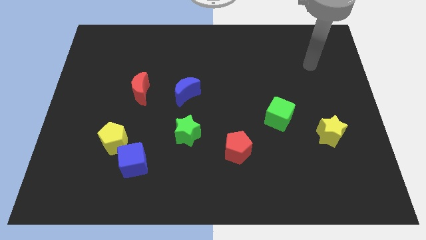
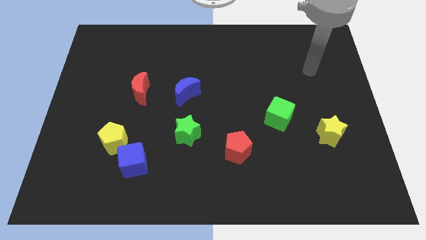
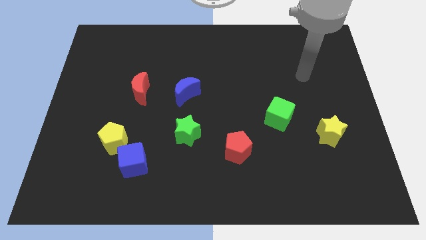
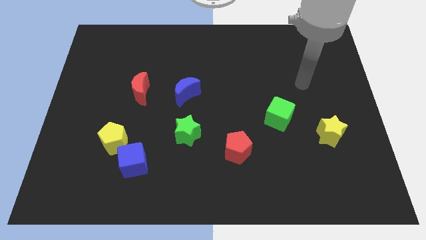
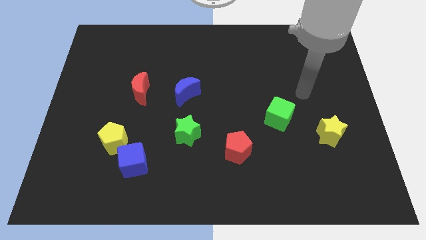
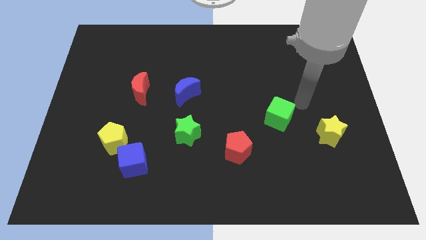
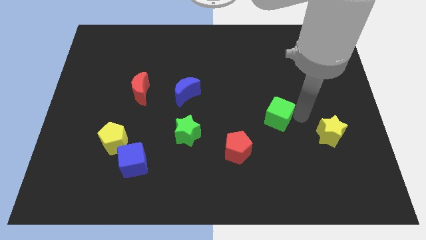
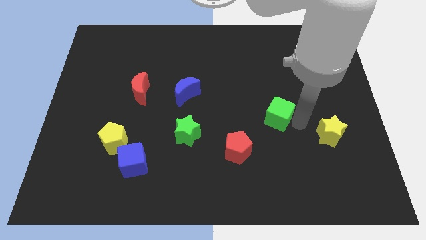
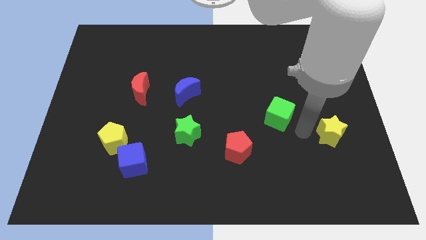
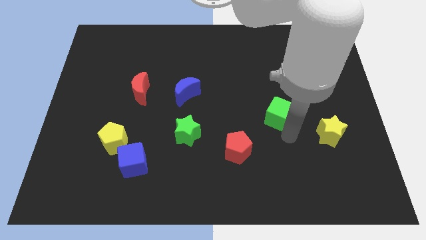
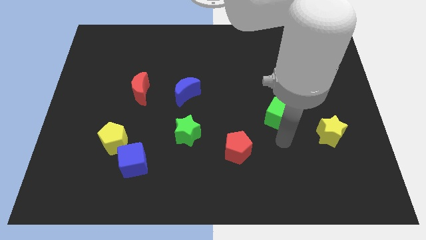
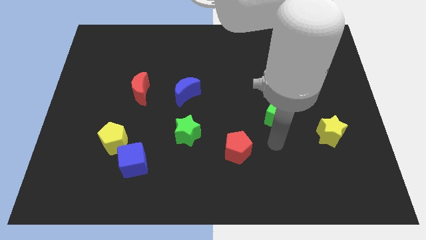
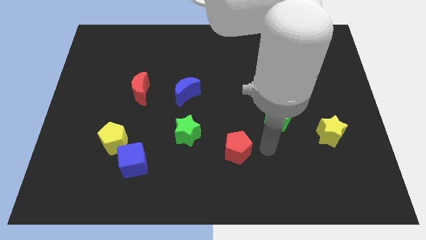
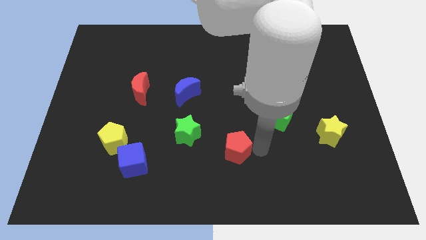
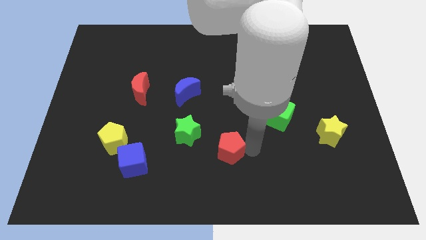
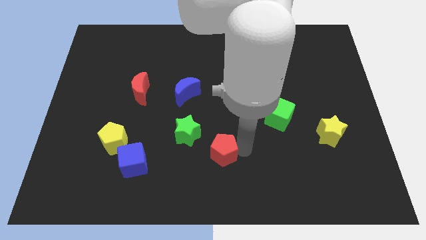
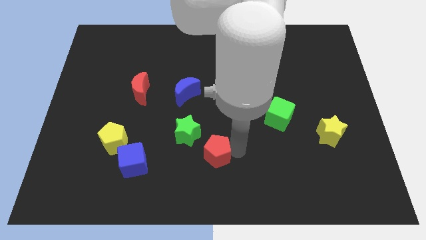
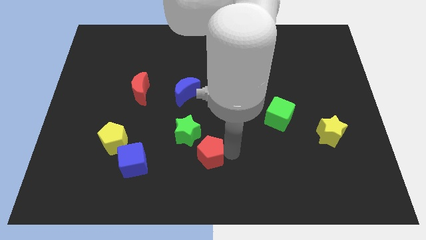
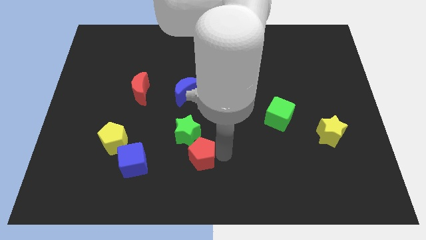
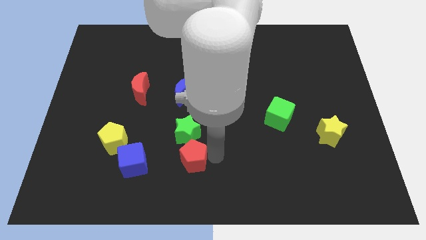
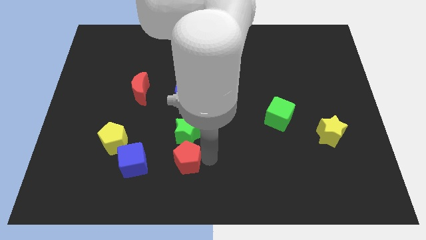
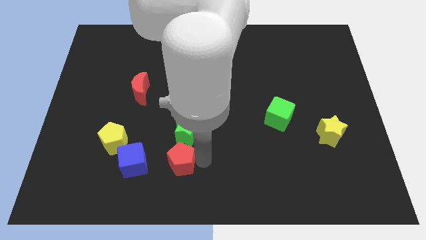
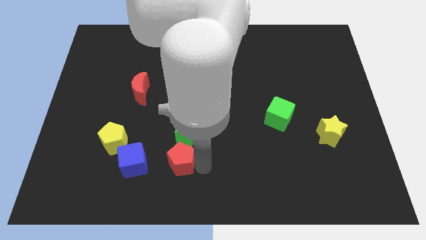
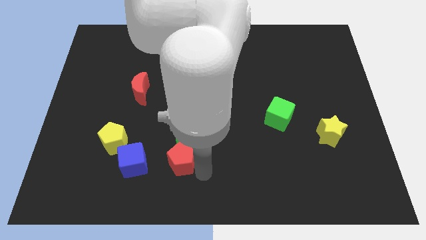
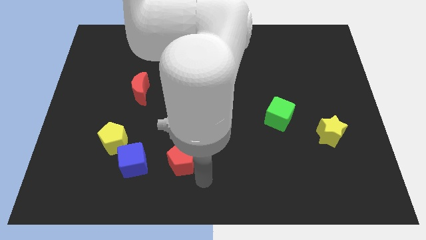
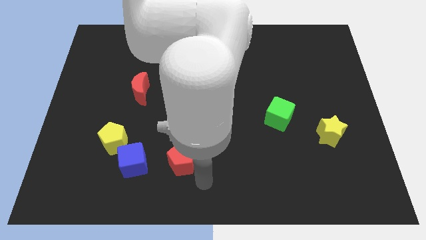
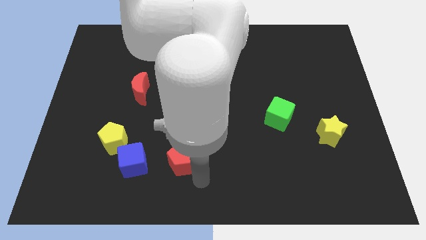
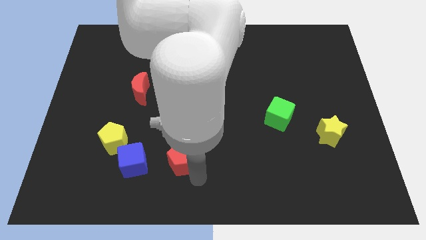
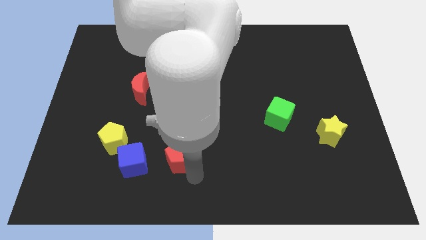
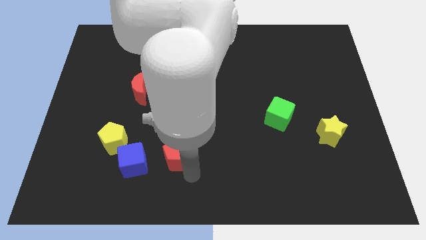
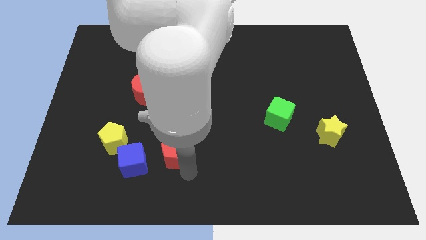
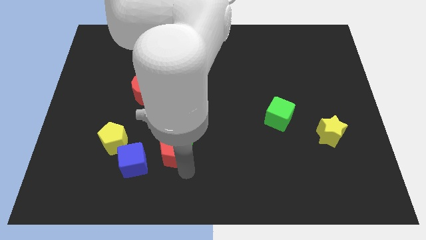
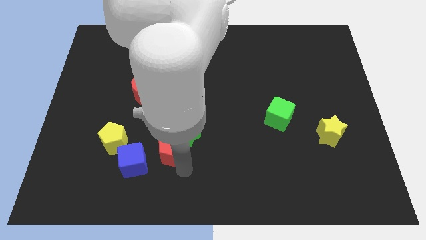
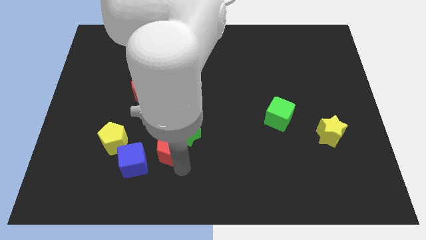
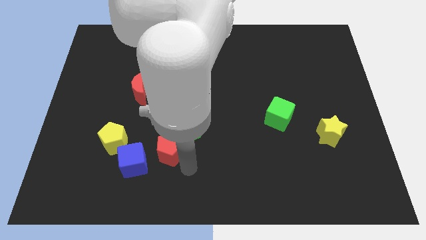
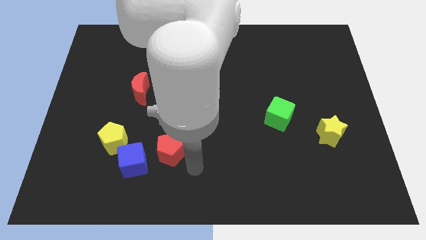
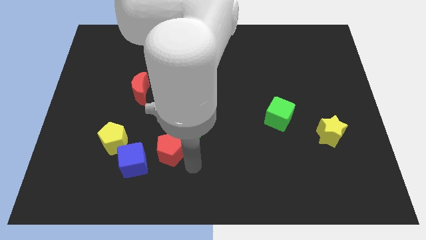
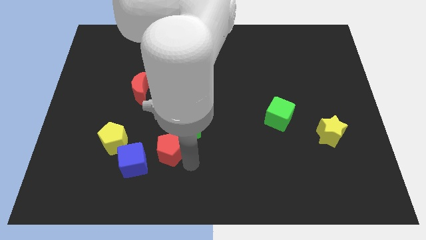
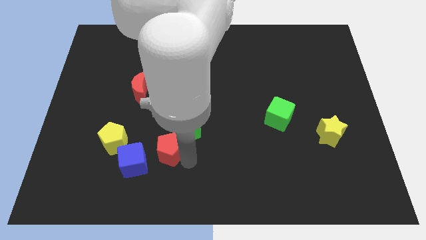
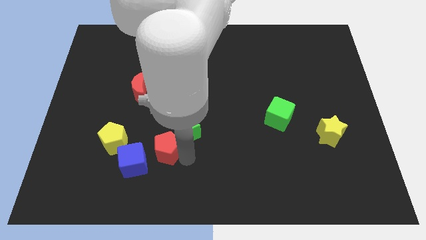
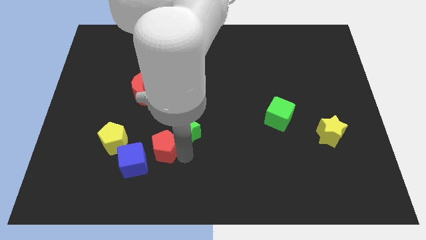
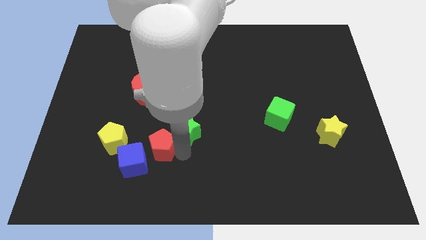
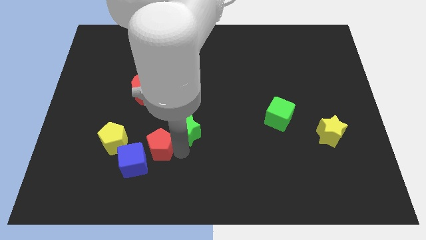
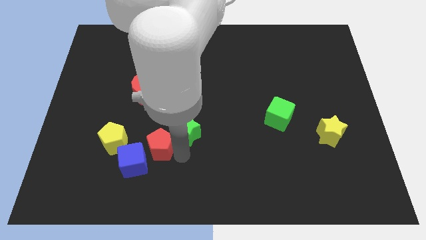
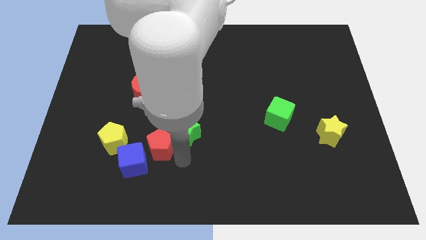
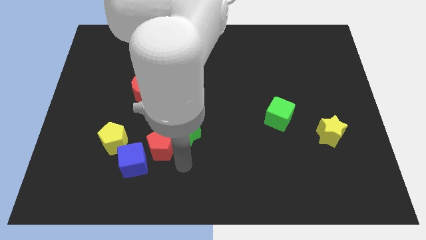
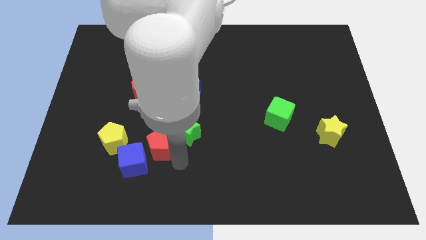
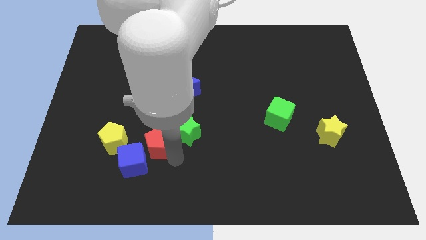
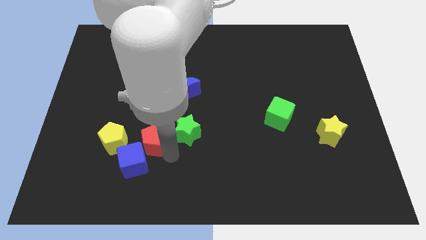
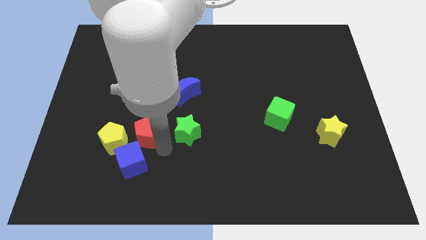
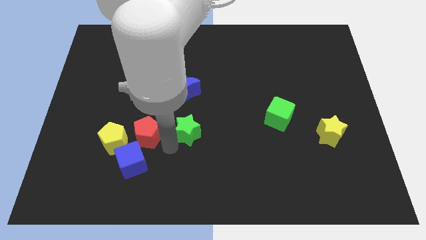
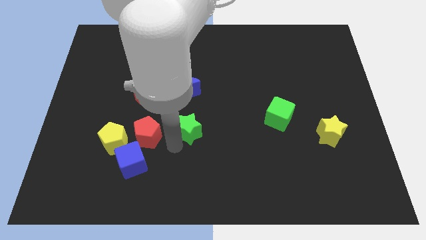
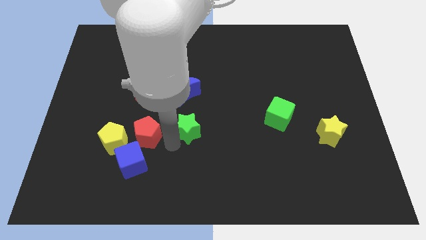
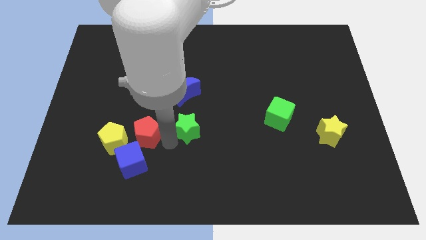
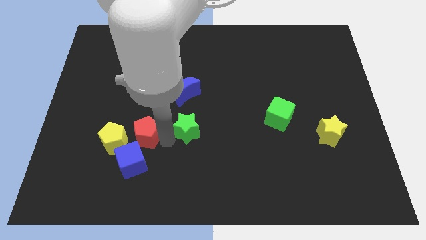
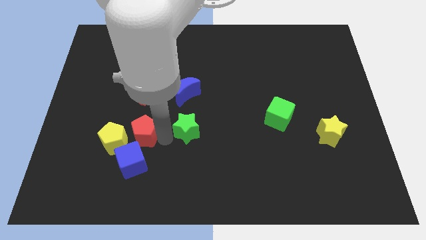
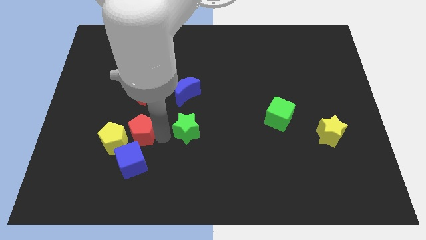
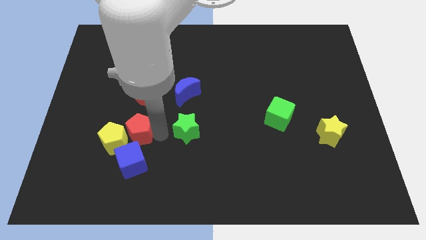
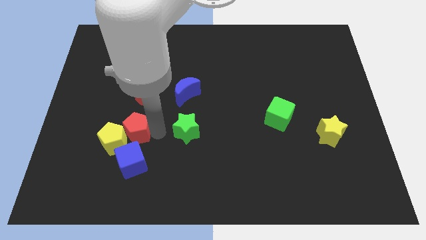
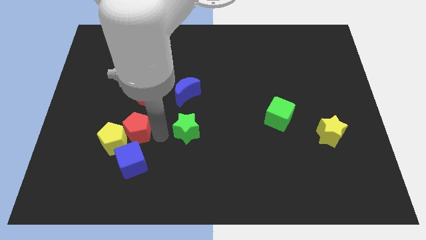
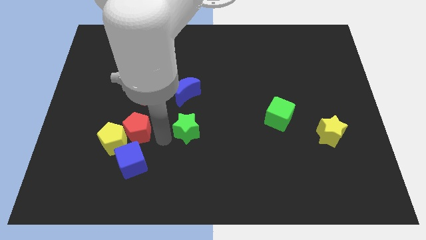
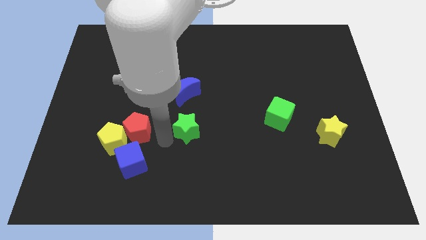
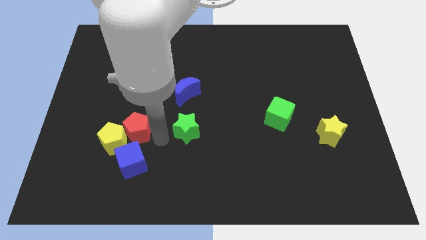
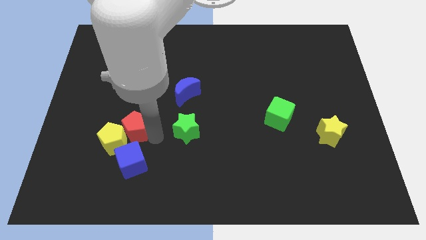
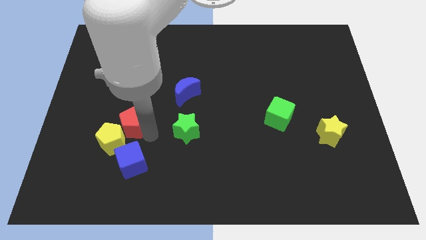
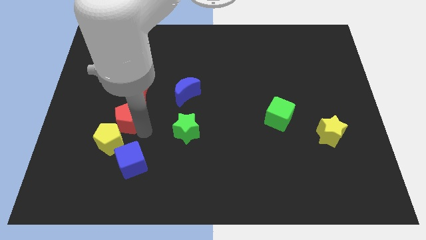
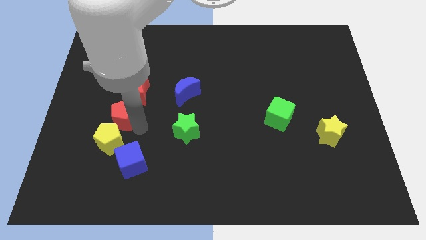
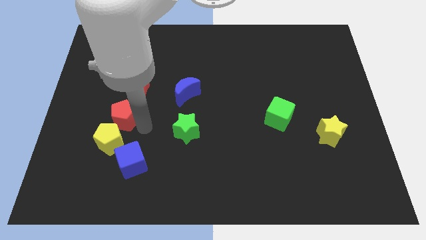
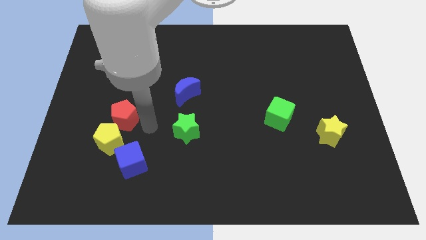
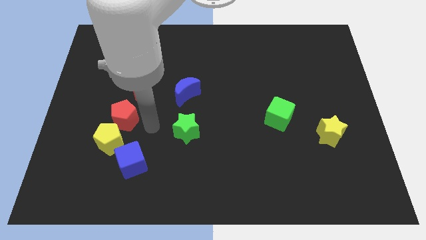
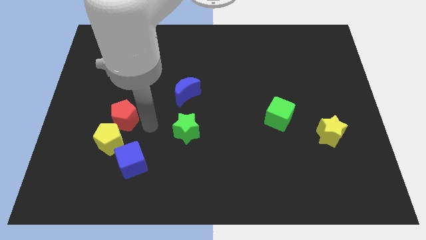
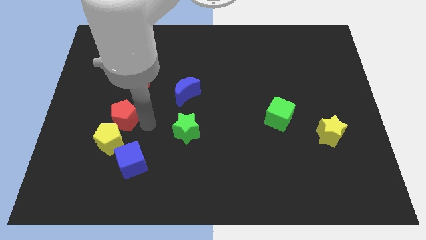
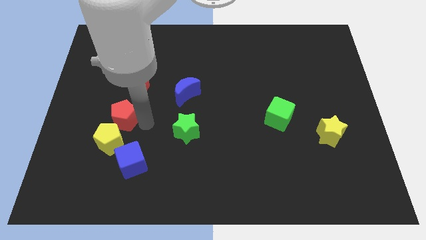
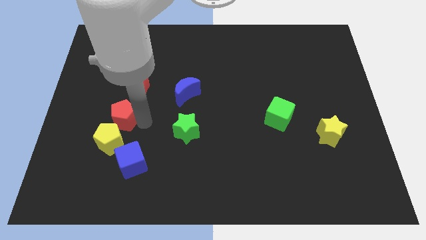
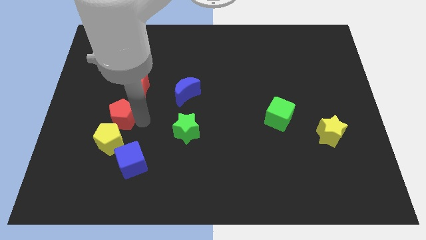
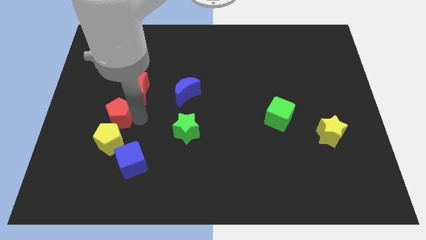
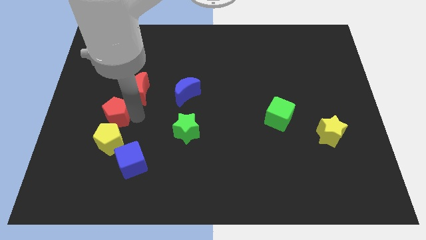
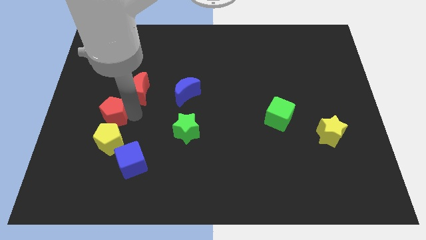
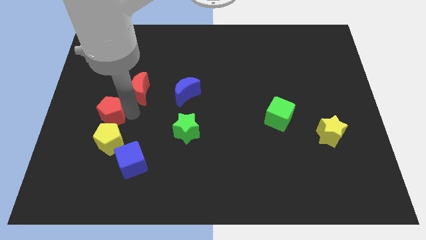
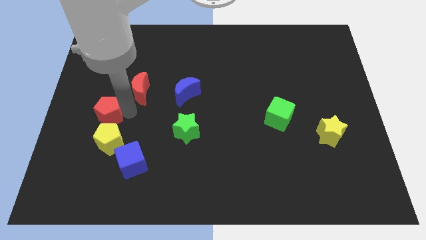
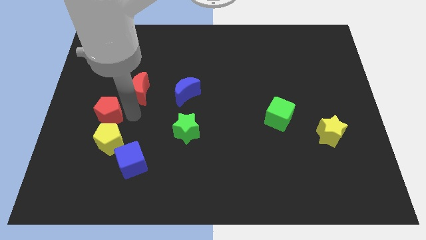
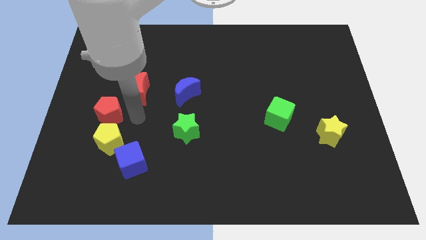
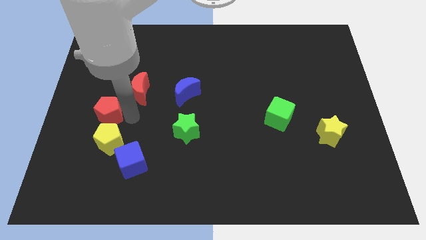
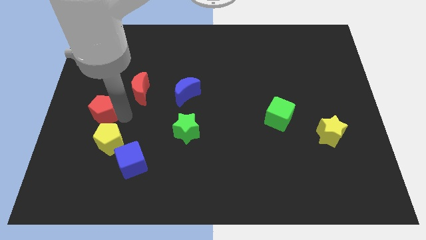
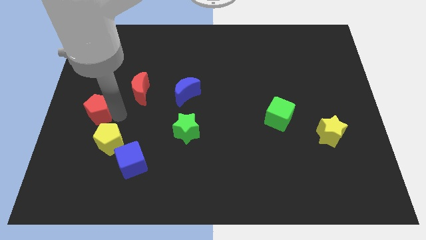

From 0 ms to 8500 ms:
slide the red pentagon to the left side of the board
